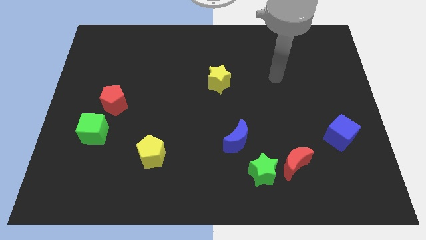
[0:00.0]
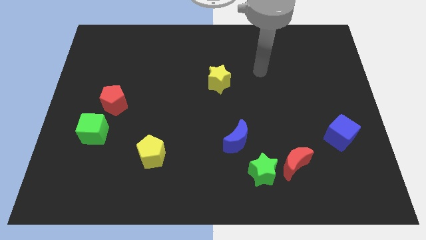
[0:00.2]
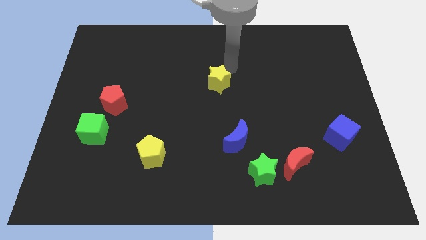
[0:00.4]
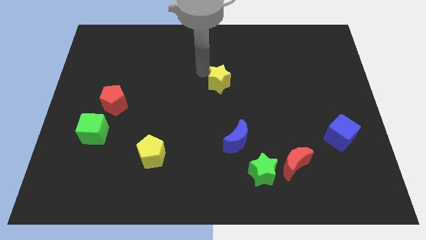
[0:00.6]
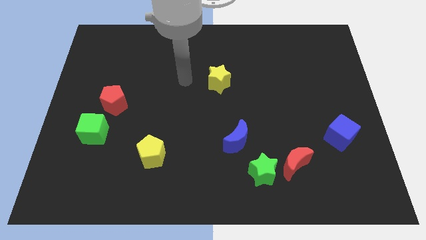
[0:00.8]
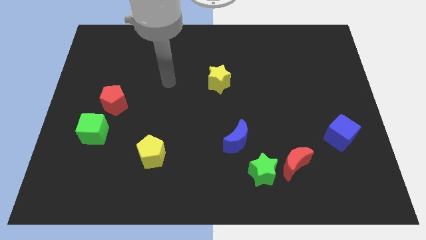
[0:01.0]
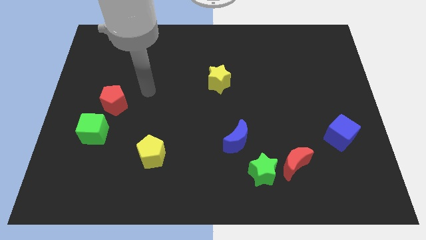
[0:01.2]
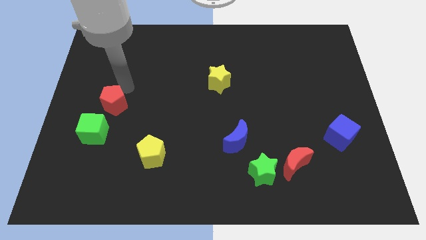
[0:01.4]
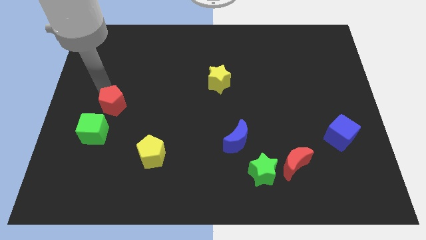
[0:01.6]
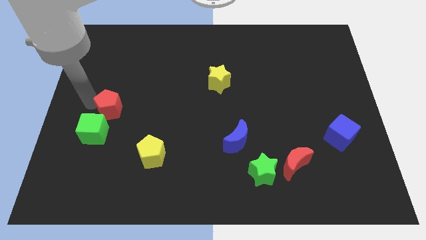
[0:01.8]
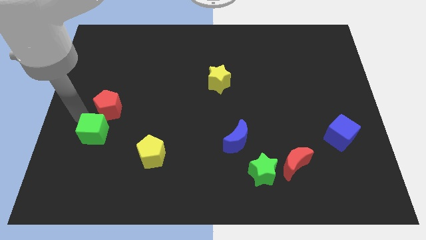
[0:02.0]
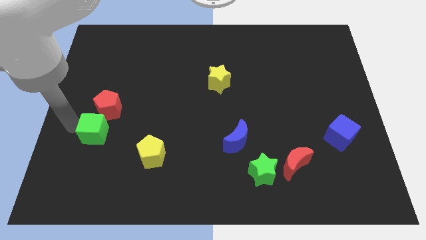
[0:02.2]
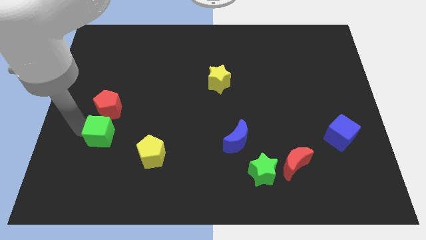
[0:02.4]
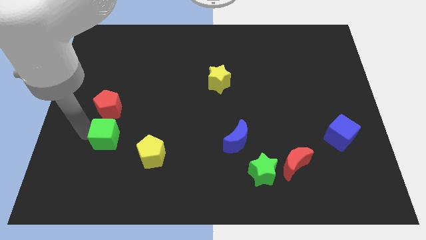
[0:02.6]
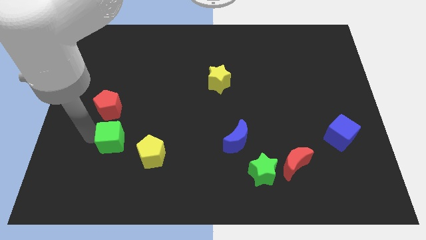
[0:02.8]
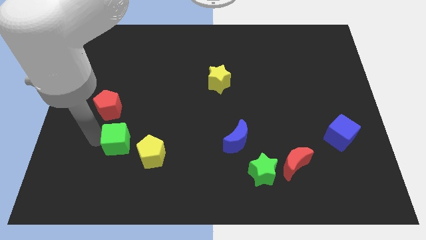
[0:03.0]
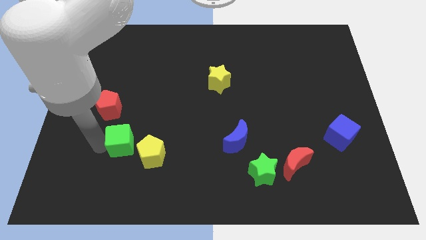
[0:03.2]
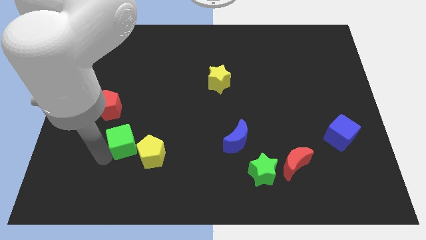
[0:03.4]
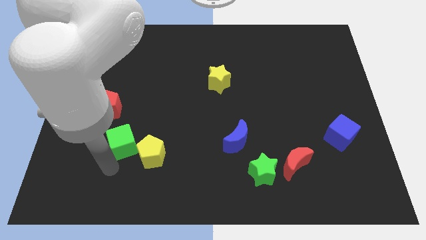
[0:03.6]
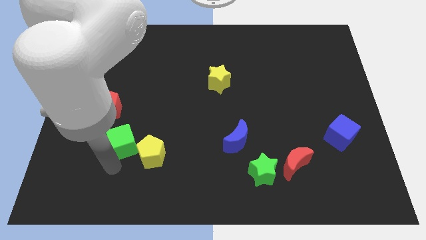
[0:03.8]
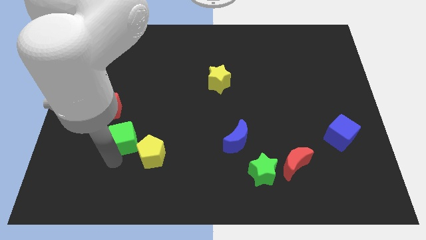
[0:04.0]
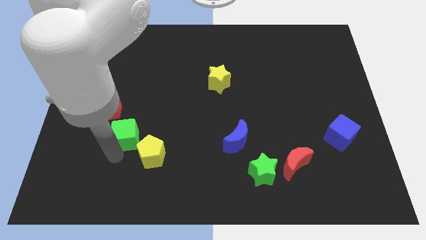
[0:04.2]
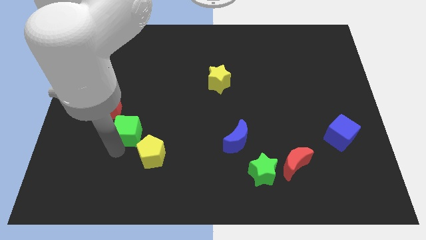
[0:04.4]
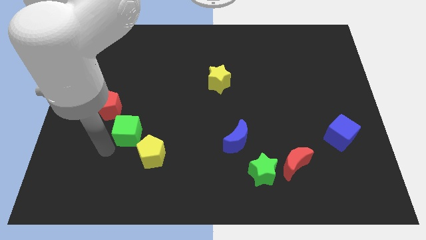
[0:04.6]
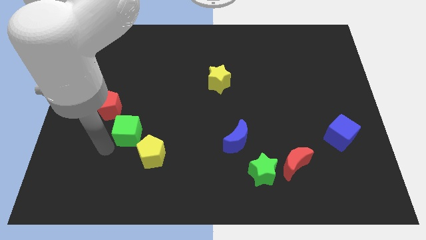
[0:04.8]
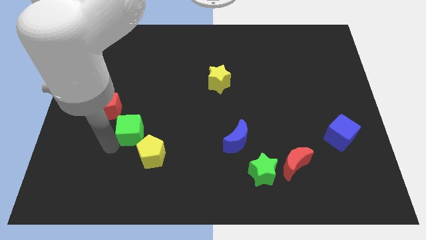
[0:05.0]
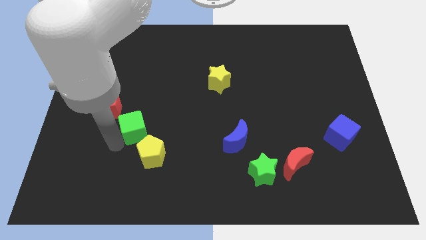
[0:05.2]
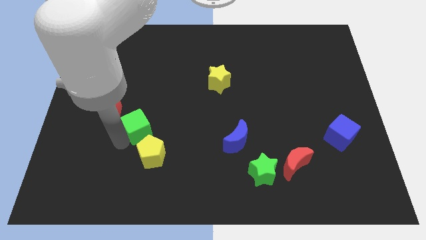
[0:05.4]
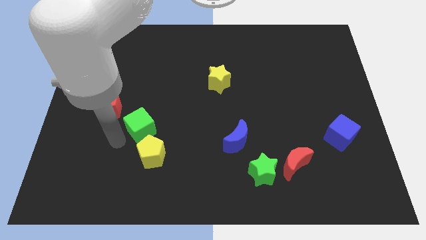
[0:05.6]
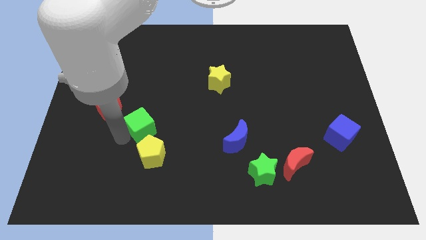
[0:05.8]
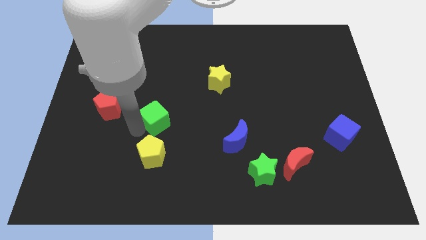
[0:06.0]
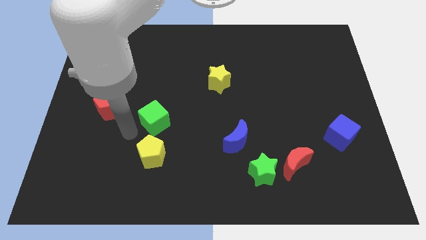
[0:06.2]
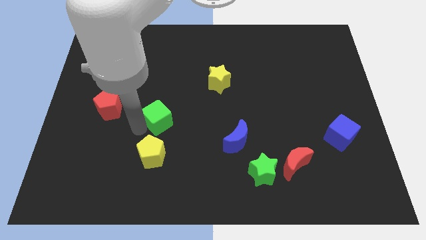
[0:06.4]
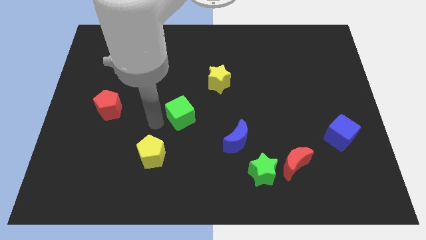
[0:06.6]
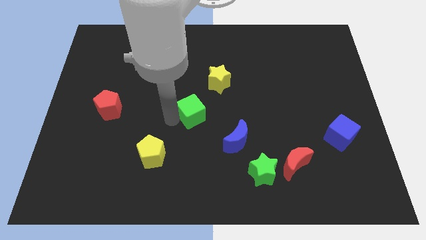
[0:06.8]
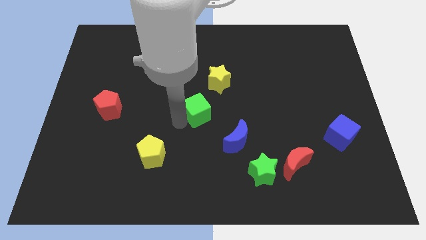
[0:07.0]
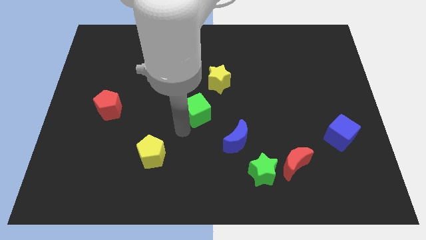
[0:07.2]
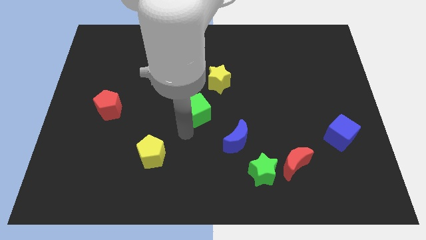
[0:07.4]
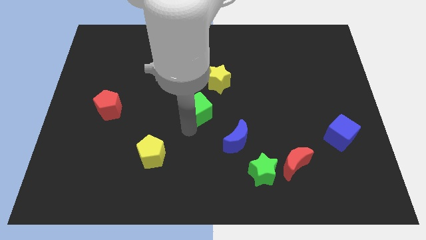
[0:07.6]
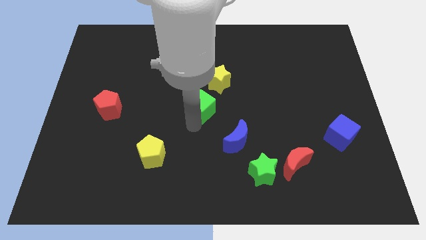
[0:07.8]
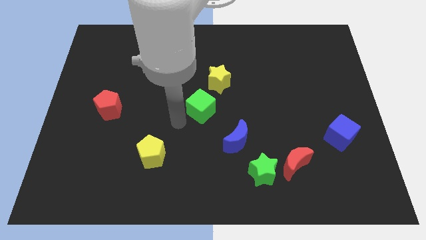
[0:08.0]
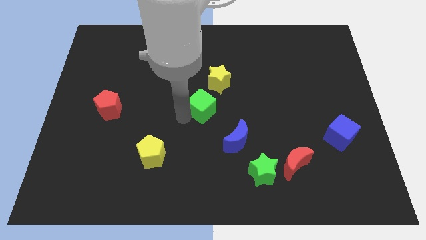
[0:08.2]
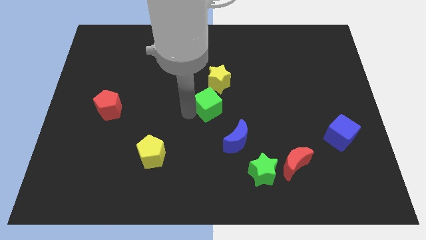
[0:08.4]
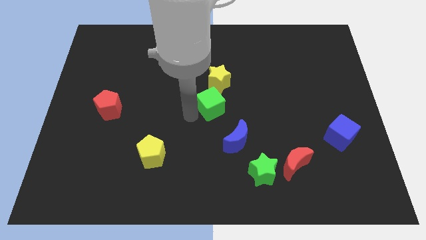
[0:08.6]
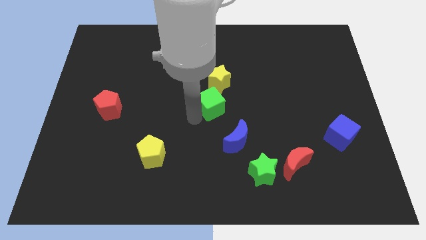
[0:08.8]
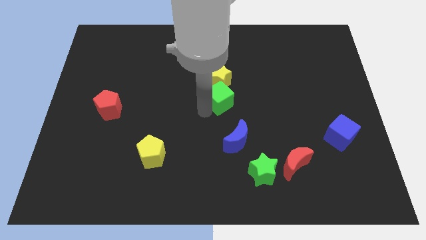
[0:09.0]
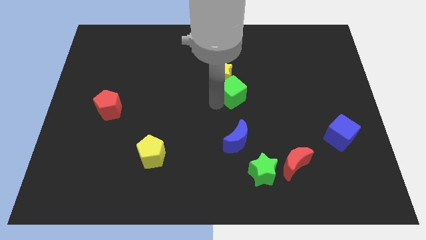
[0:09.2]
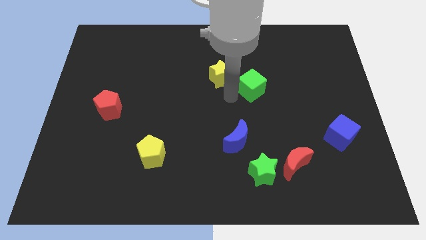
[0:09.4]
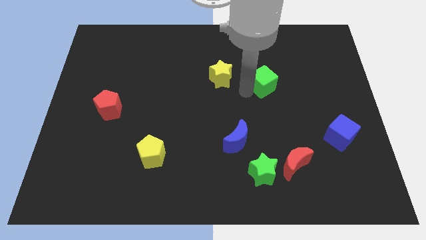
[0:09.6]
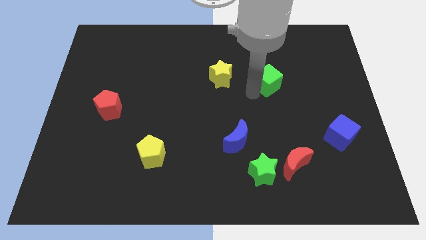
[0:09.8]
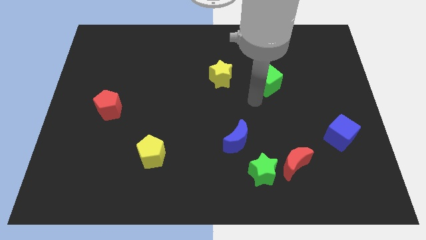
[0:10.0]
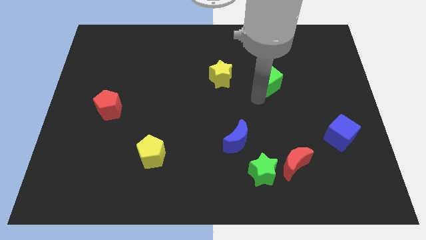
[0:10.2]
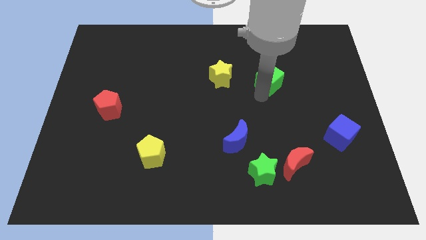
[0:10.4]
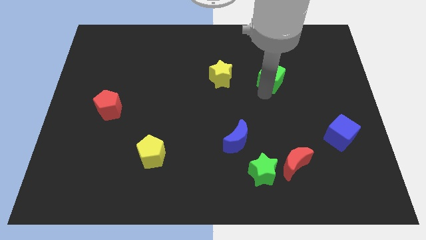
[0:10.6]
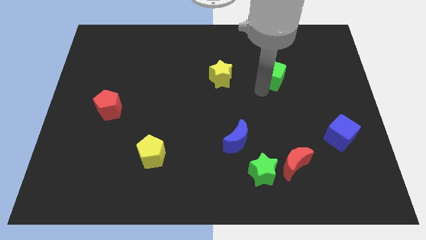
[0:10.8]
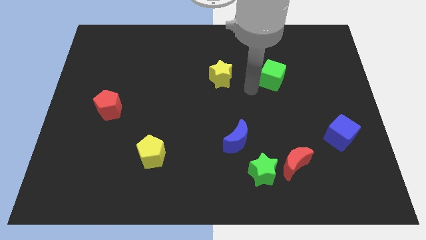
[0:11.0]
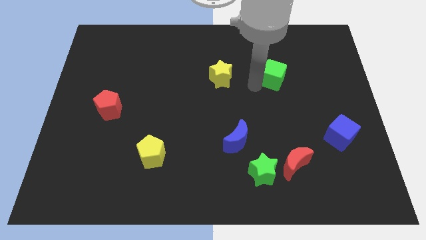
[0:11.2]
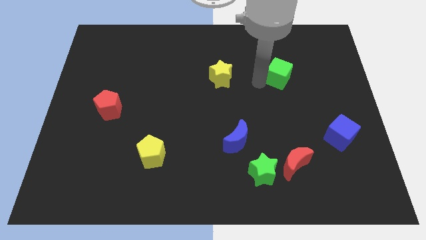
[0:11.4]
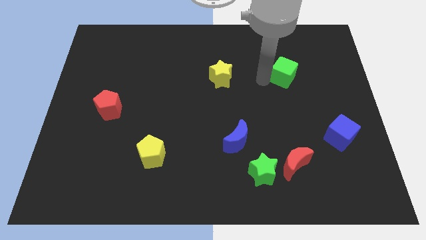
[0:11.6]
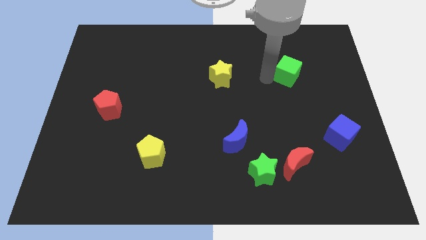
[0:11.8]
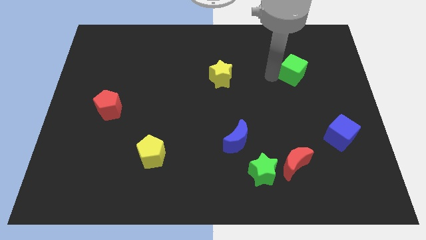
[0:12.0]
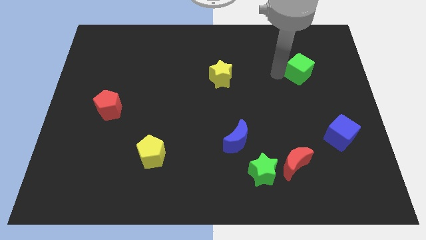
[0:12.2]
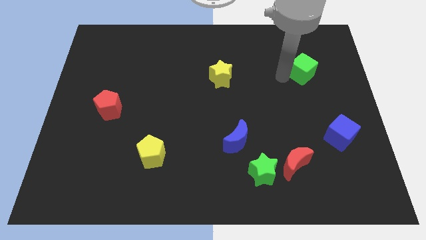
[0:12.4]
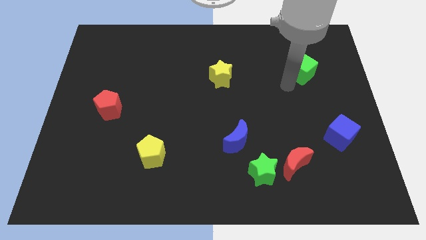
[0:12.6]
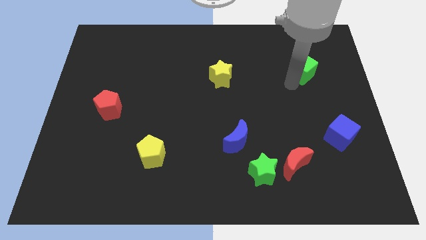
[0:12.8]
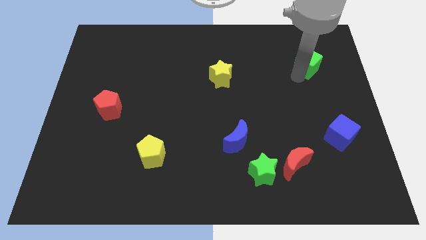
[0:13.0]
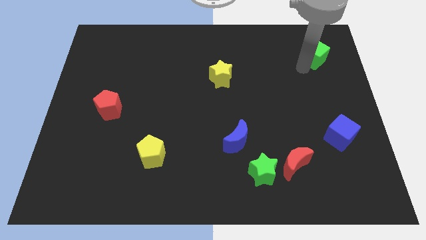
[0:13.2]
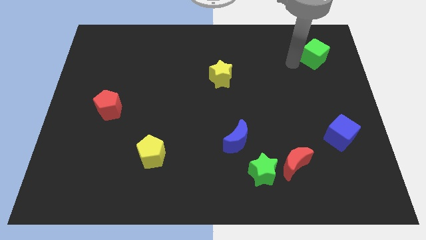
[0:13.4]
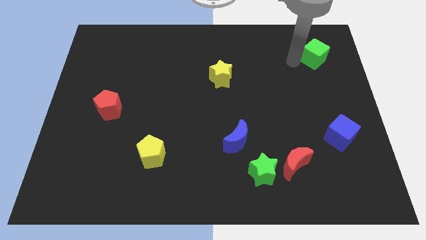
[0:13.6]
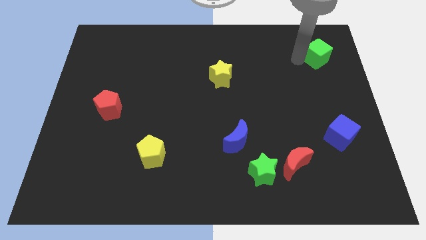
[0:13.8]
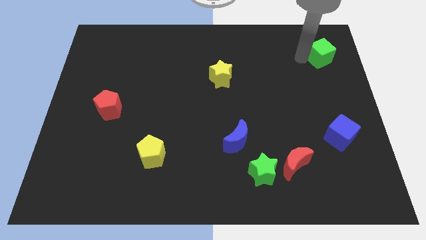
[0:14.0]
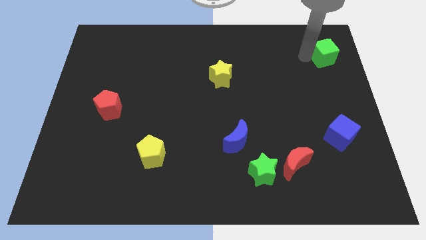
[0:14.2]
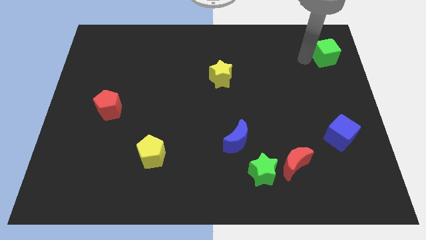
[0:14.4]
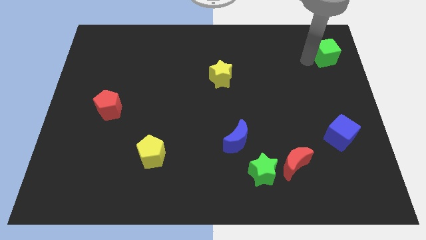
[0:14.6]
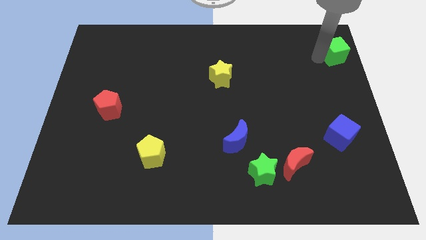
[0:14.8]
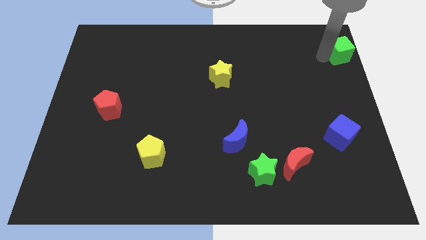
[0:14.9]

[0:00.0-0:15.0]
slide the green cube to the upper right corner
